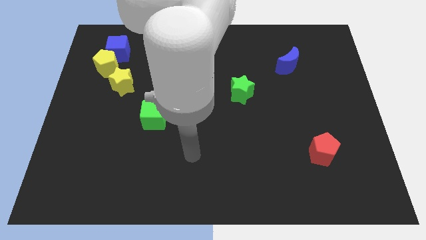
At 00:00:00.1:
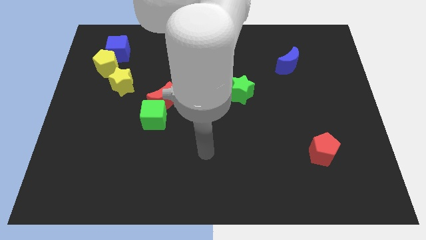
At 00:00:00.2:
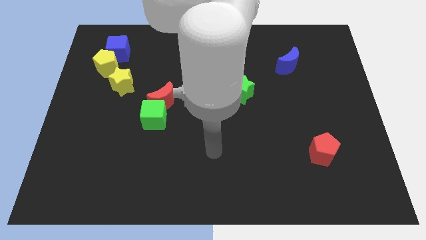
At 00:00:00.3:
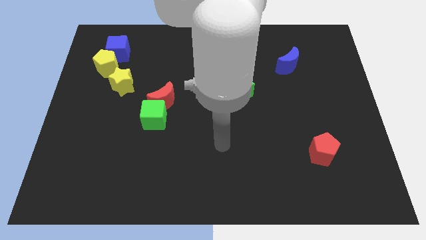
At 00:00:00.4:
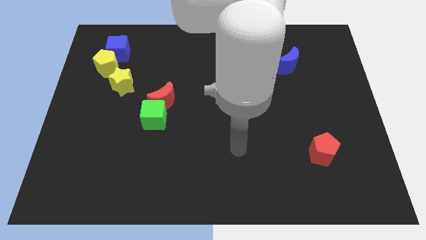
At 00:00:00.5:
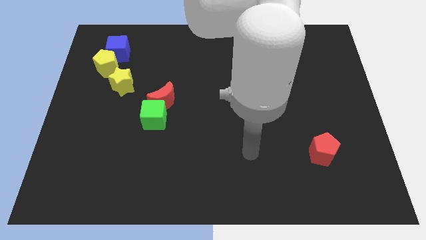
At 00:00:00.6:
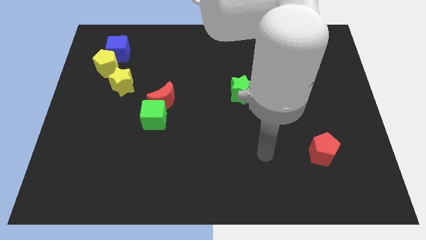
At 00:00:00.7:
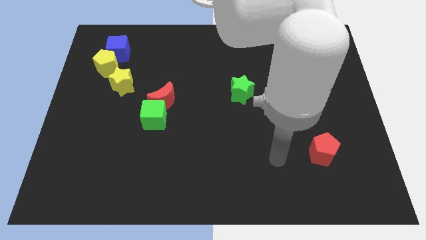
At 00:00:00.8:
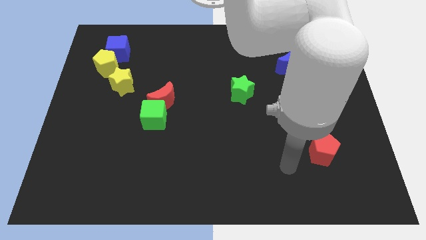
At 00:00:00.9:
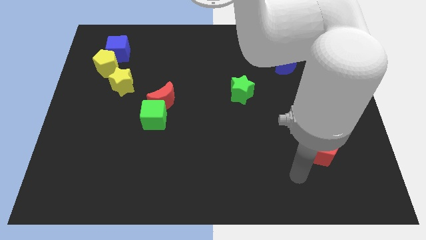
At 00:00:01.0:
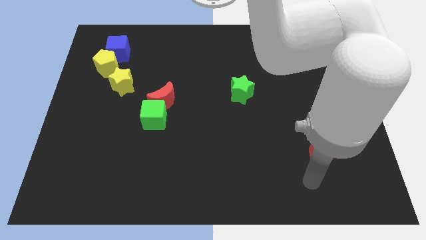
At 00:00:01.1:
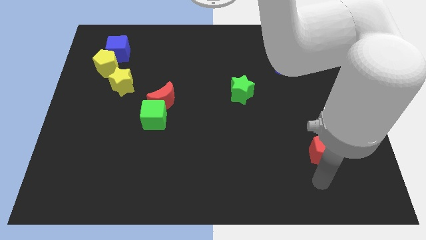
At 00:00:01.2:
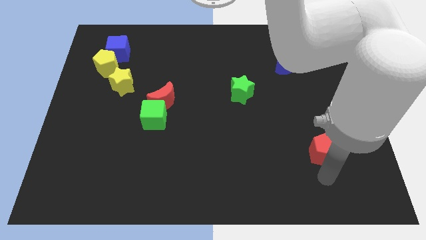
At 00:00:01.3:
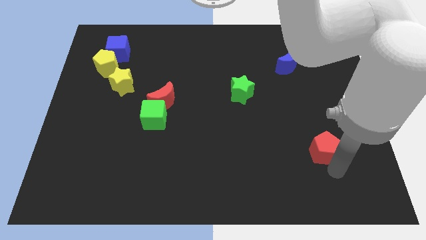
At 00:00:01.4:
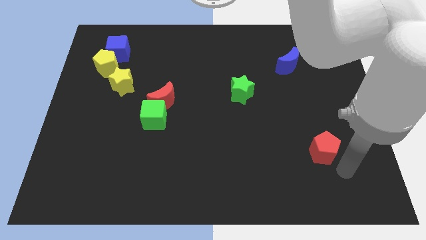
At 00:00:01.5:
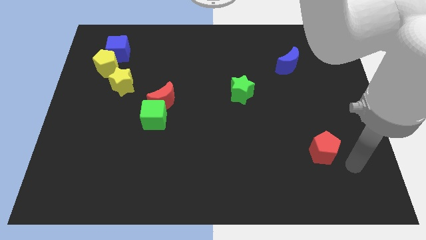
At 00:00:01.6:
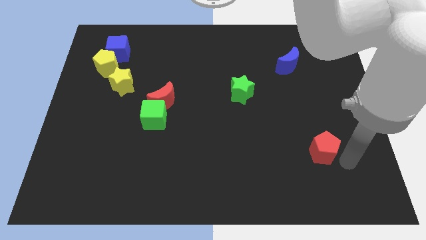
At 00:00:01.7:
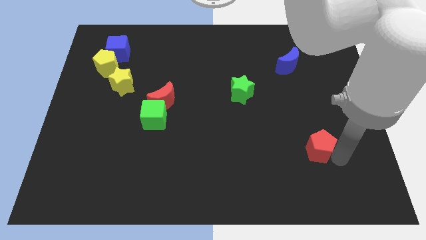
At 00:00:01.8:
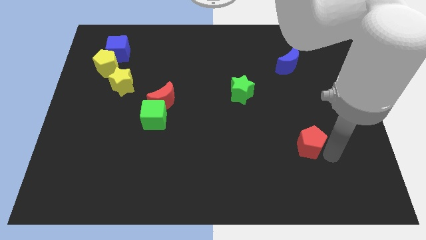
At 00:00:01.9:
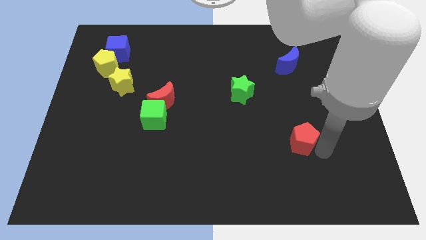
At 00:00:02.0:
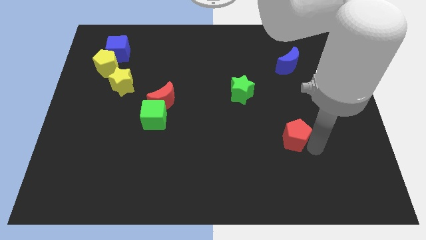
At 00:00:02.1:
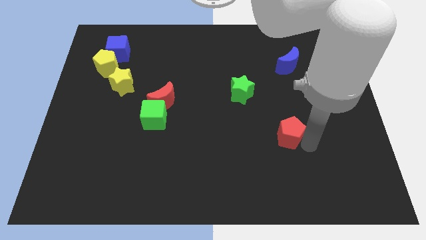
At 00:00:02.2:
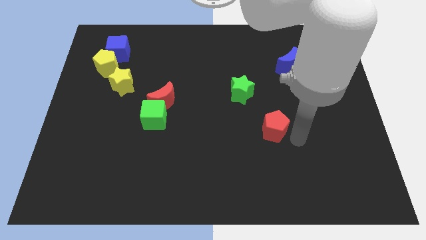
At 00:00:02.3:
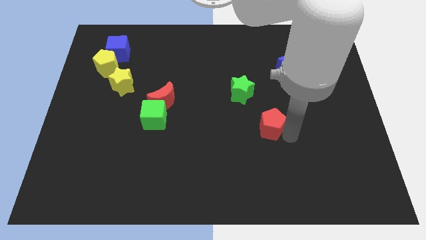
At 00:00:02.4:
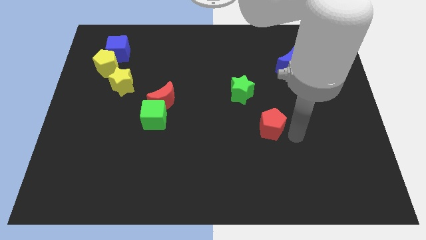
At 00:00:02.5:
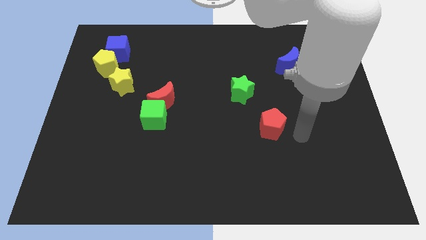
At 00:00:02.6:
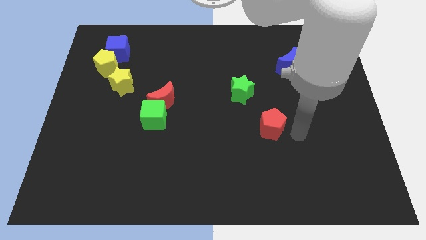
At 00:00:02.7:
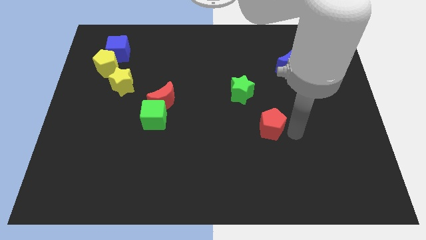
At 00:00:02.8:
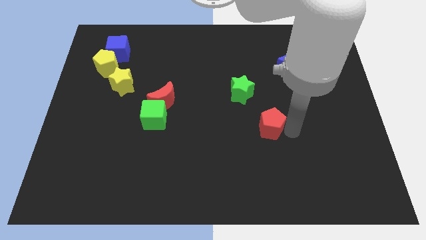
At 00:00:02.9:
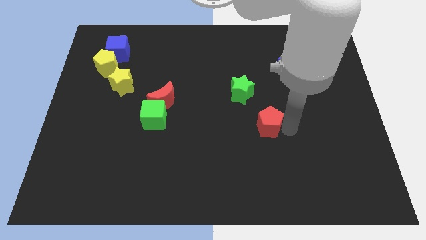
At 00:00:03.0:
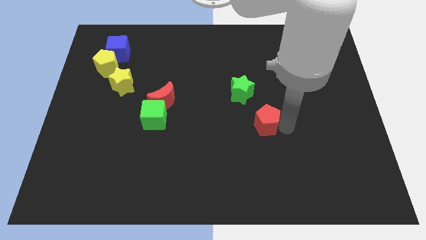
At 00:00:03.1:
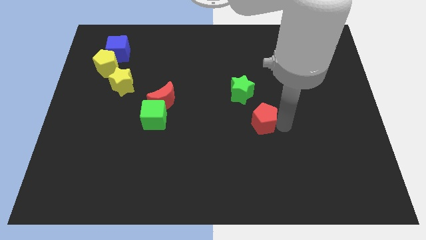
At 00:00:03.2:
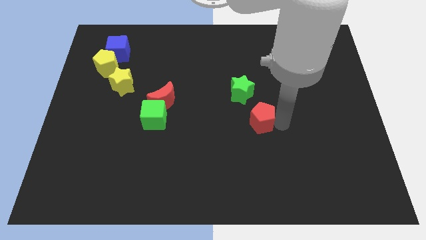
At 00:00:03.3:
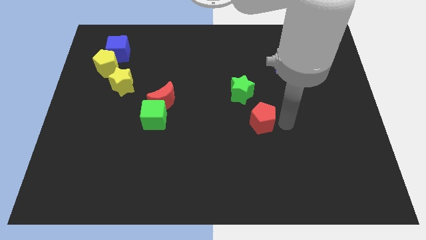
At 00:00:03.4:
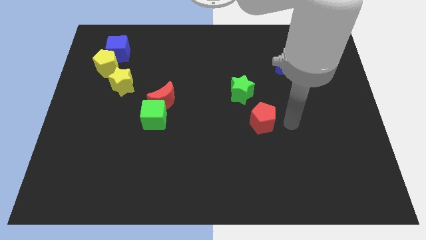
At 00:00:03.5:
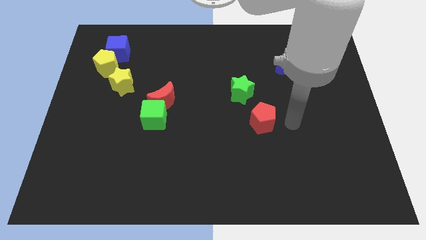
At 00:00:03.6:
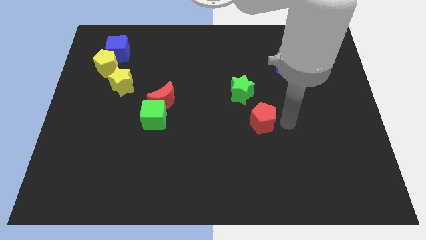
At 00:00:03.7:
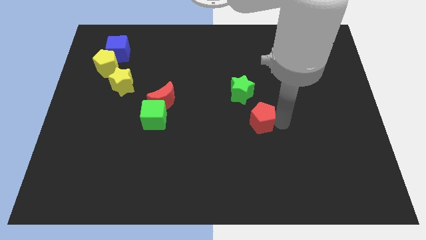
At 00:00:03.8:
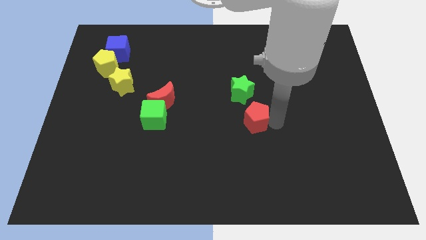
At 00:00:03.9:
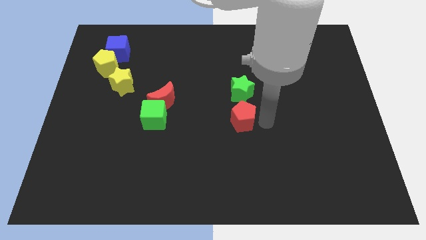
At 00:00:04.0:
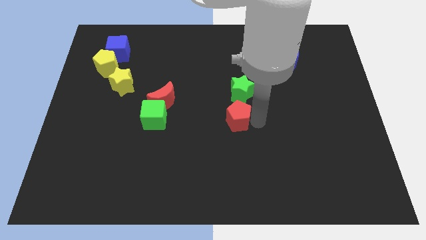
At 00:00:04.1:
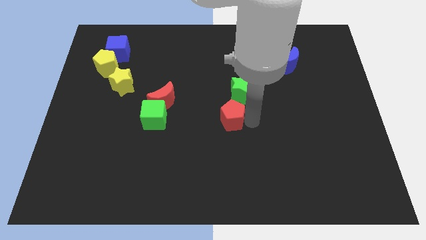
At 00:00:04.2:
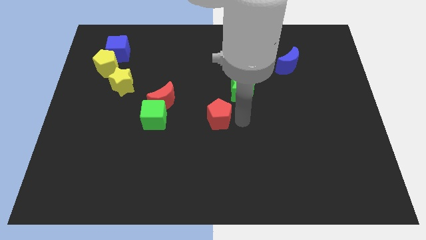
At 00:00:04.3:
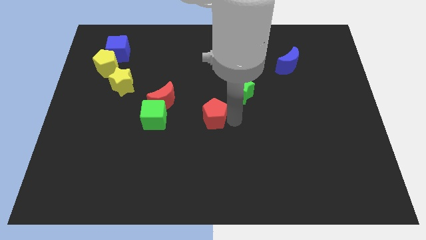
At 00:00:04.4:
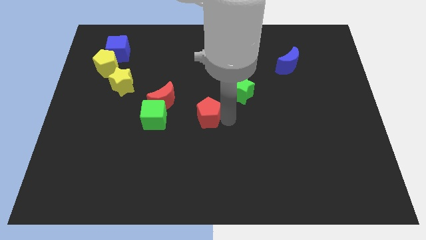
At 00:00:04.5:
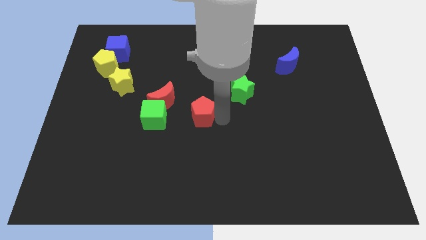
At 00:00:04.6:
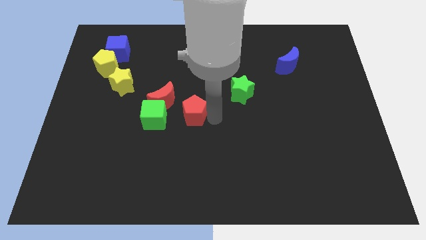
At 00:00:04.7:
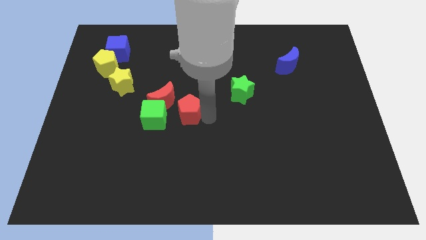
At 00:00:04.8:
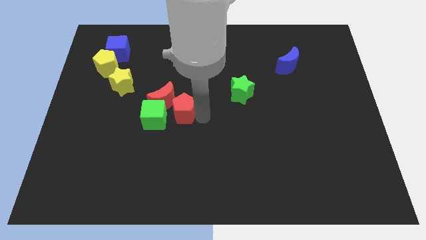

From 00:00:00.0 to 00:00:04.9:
put the red pentagon next to the red moon

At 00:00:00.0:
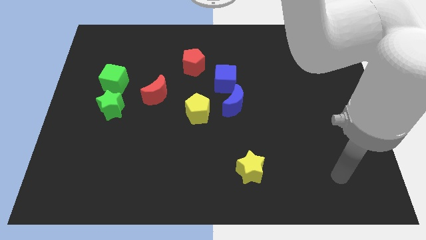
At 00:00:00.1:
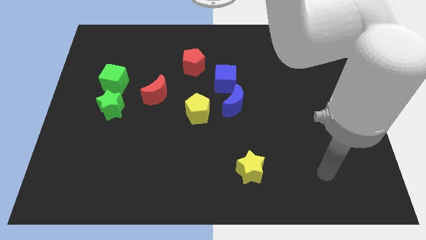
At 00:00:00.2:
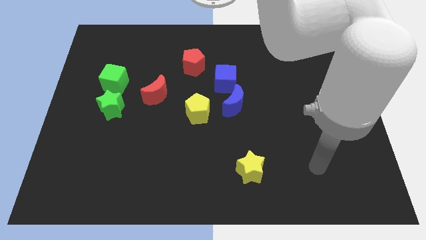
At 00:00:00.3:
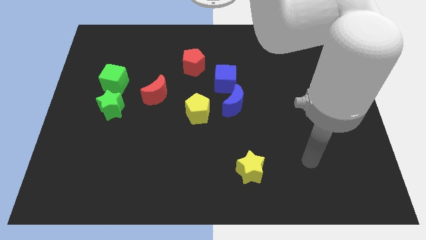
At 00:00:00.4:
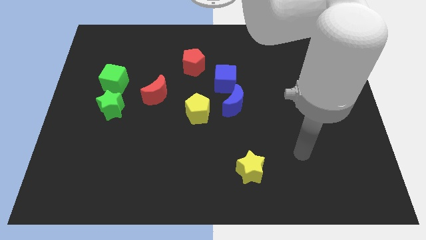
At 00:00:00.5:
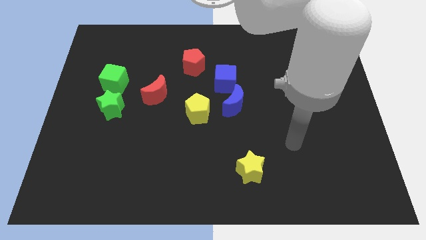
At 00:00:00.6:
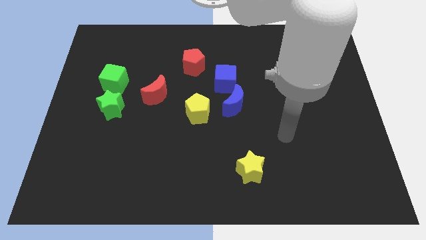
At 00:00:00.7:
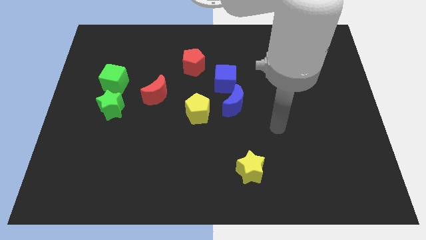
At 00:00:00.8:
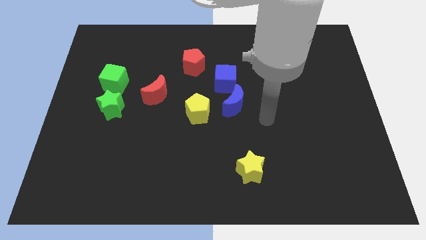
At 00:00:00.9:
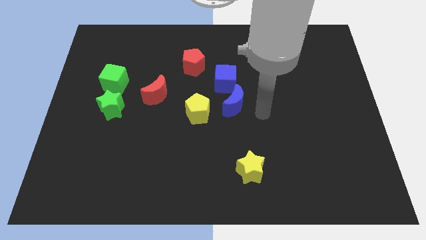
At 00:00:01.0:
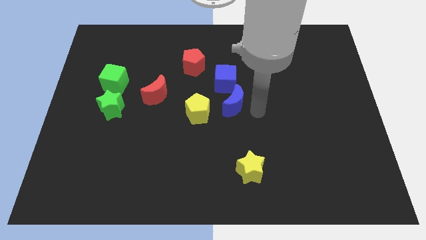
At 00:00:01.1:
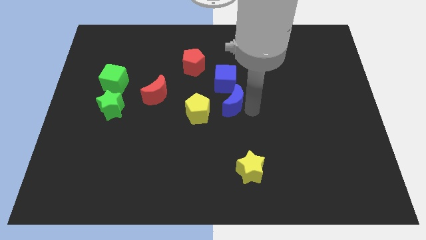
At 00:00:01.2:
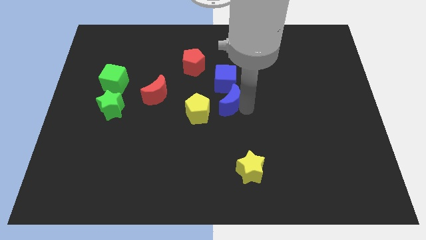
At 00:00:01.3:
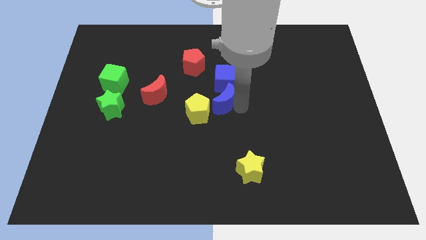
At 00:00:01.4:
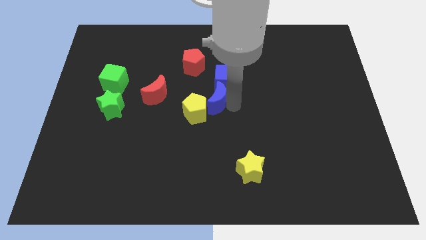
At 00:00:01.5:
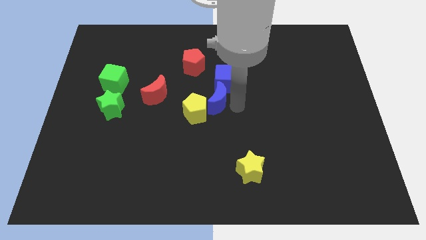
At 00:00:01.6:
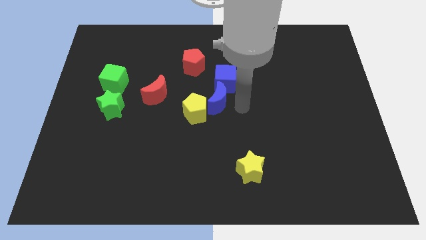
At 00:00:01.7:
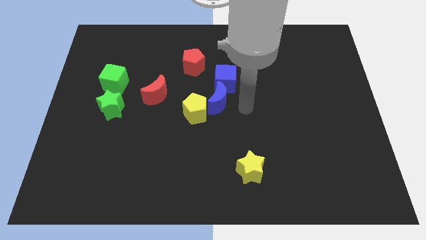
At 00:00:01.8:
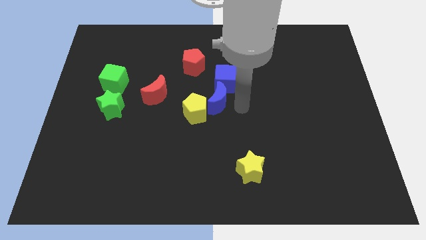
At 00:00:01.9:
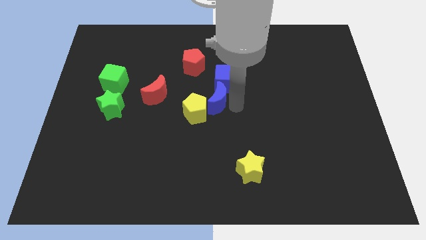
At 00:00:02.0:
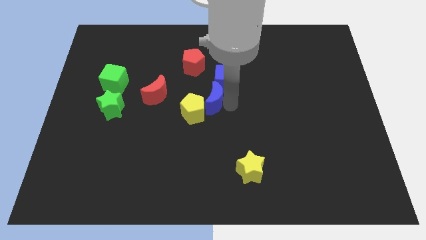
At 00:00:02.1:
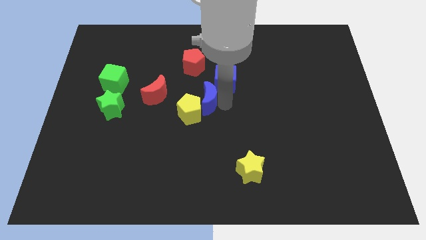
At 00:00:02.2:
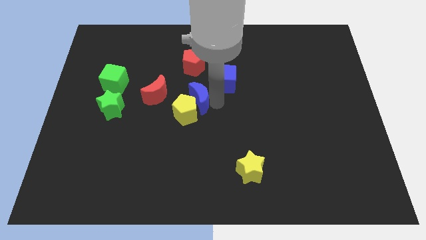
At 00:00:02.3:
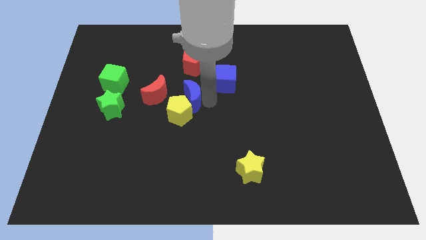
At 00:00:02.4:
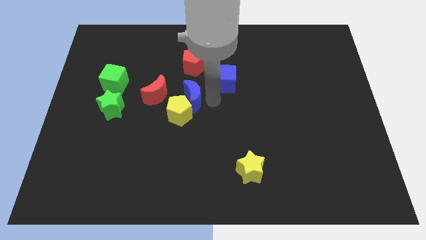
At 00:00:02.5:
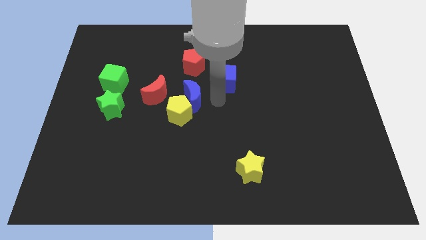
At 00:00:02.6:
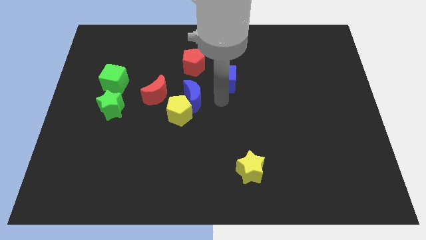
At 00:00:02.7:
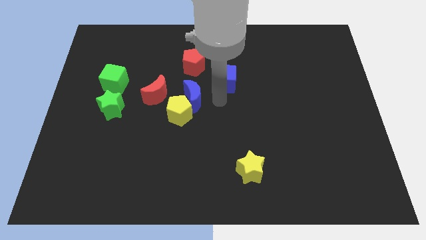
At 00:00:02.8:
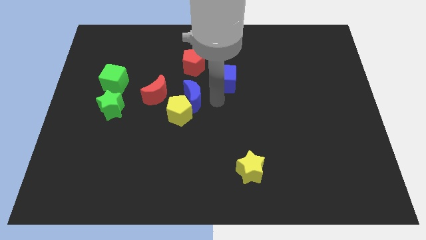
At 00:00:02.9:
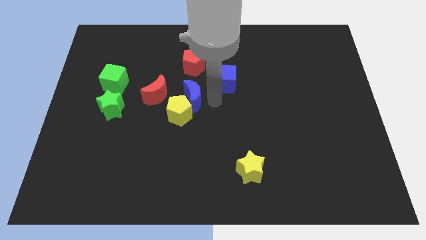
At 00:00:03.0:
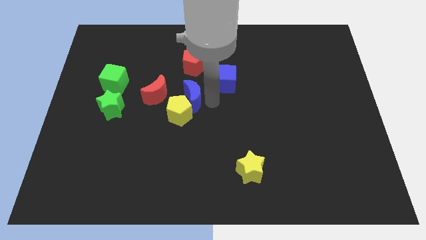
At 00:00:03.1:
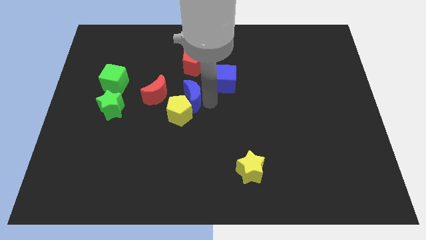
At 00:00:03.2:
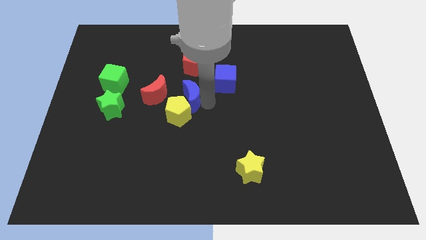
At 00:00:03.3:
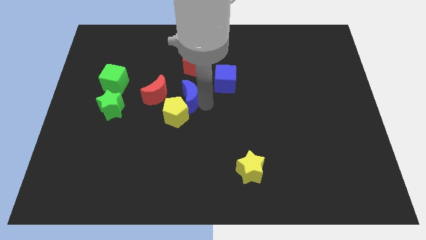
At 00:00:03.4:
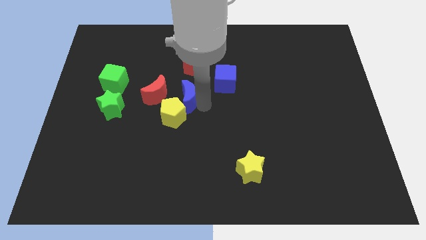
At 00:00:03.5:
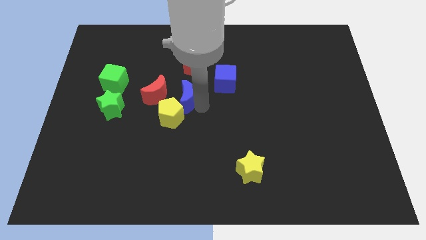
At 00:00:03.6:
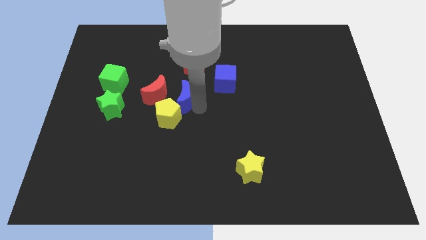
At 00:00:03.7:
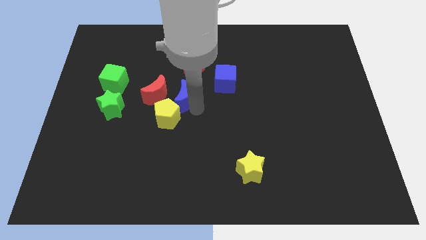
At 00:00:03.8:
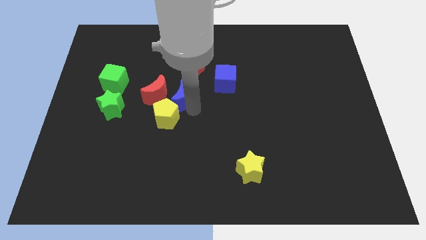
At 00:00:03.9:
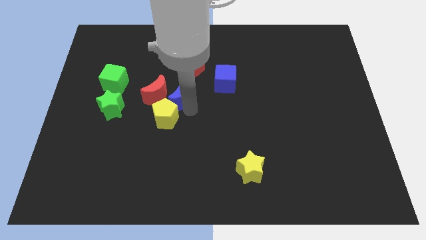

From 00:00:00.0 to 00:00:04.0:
slide the blue moon to the red moon
